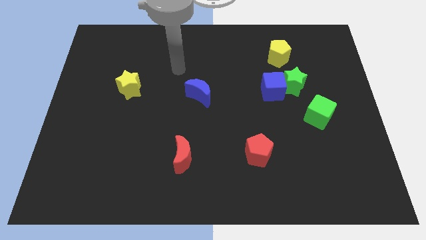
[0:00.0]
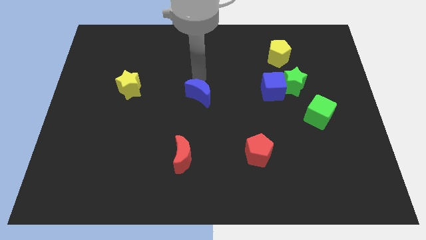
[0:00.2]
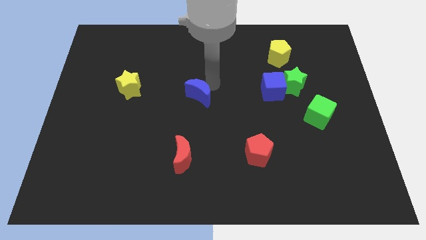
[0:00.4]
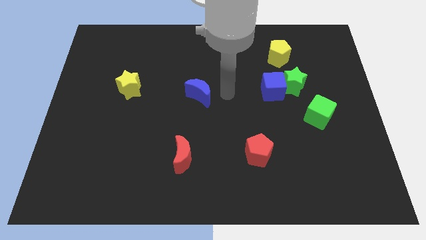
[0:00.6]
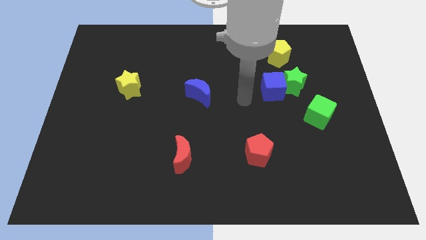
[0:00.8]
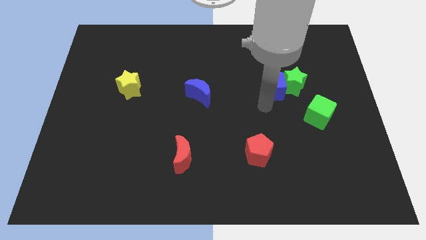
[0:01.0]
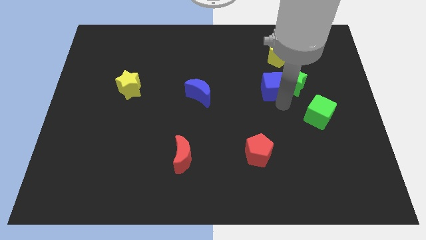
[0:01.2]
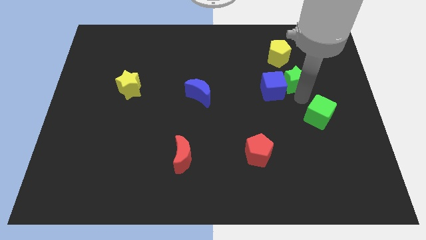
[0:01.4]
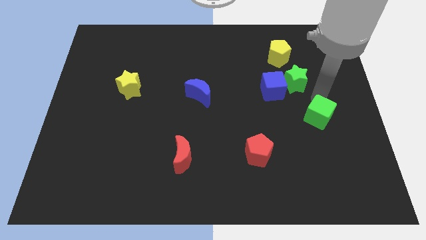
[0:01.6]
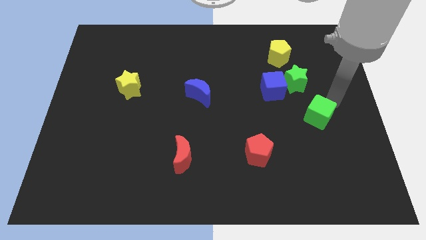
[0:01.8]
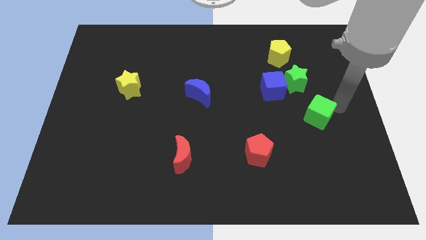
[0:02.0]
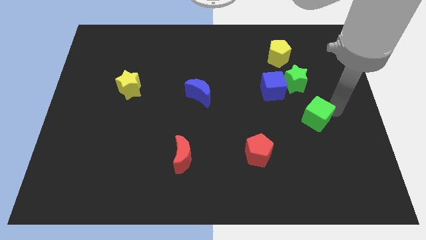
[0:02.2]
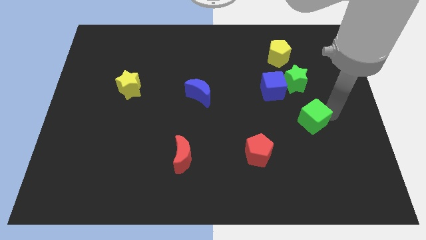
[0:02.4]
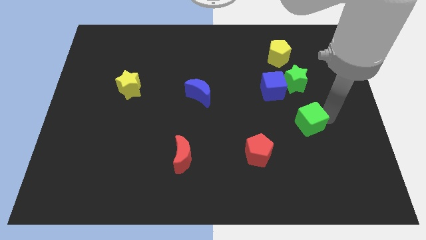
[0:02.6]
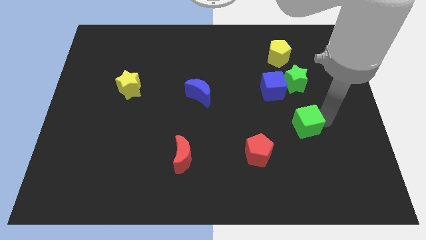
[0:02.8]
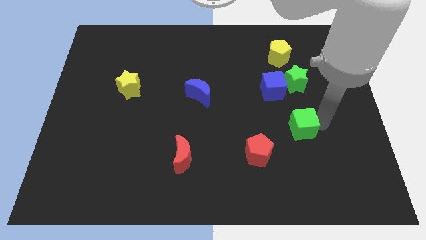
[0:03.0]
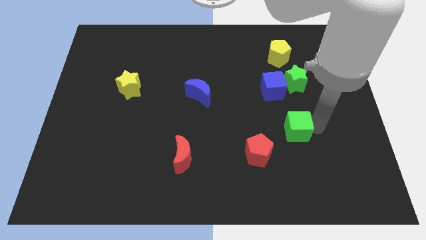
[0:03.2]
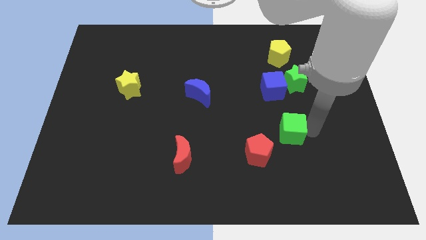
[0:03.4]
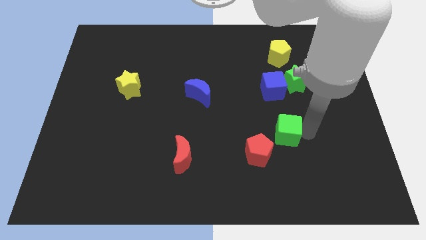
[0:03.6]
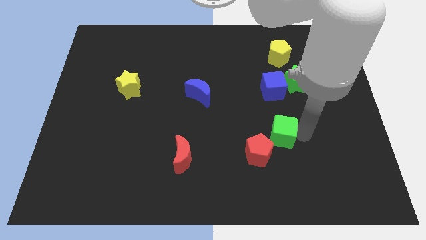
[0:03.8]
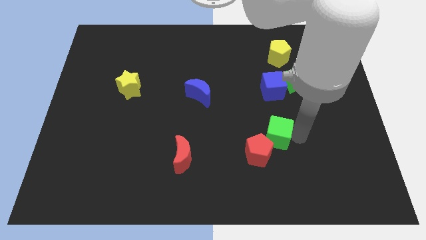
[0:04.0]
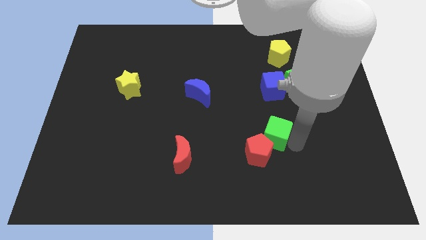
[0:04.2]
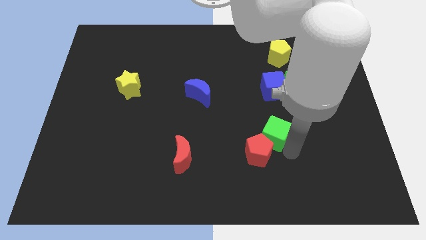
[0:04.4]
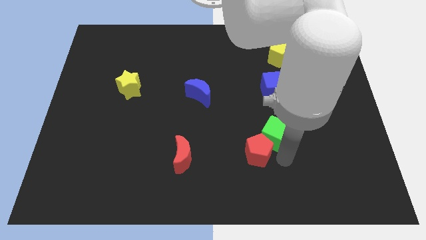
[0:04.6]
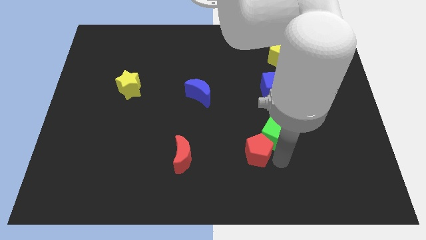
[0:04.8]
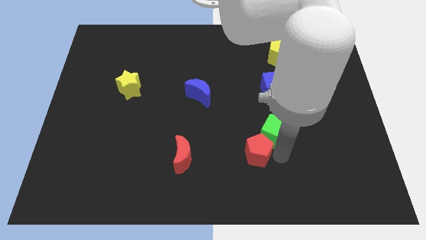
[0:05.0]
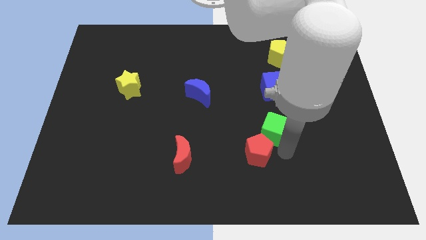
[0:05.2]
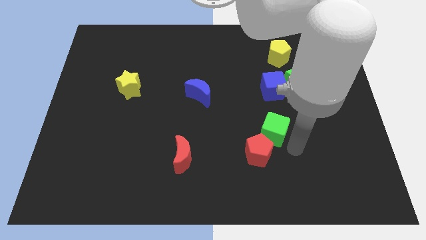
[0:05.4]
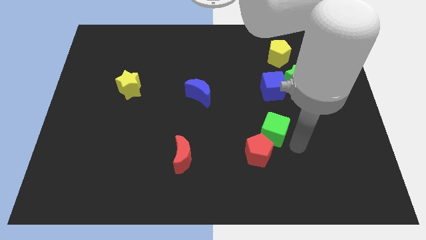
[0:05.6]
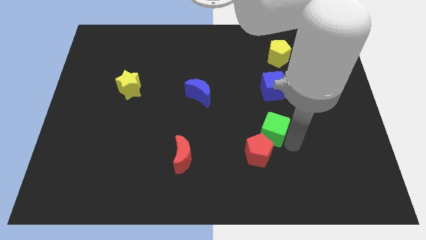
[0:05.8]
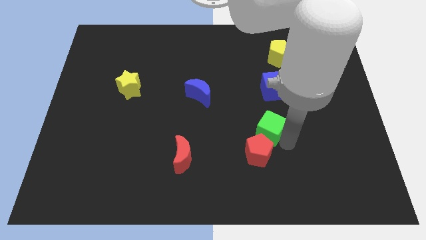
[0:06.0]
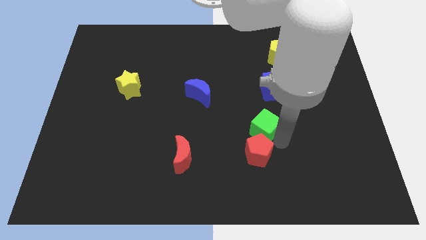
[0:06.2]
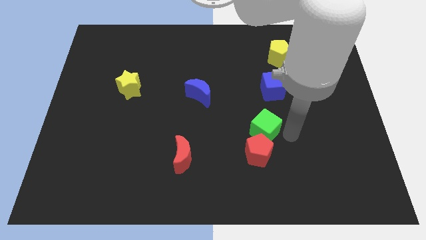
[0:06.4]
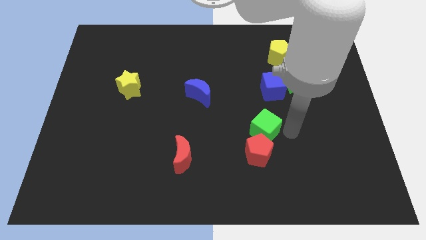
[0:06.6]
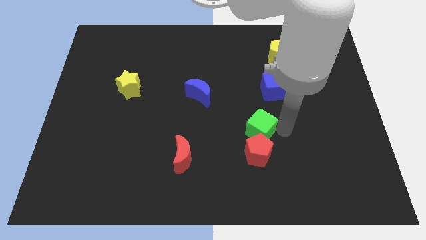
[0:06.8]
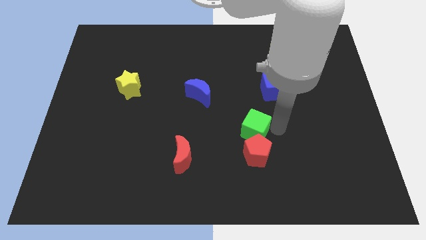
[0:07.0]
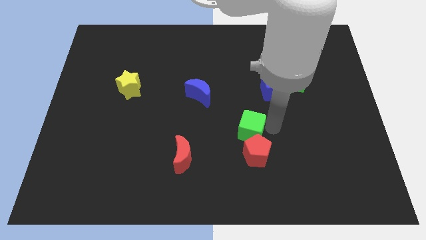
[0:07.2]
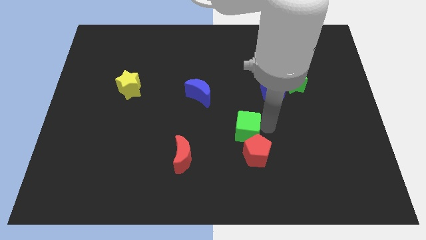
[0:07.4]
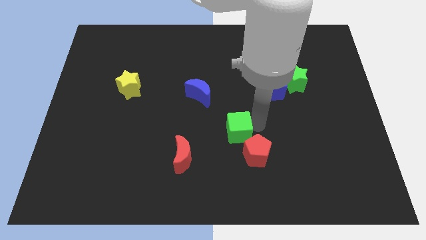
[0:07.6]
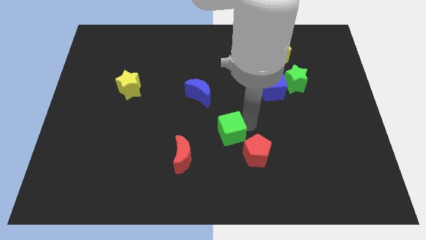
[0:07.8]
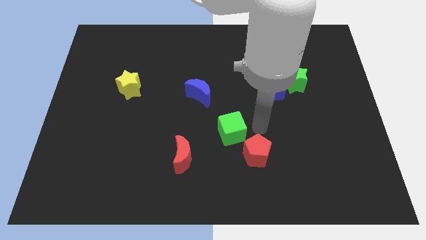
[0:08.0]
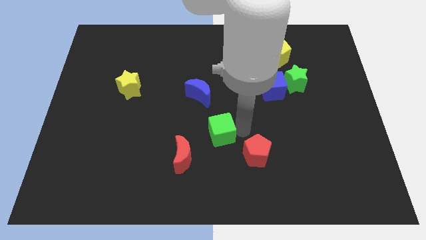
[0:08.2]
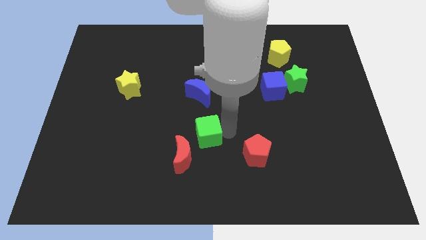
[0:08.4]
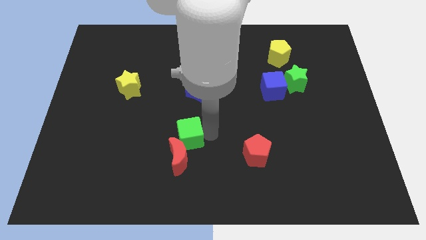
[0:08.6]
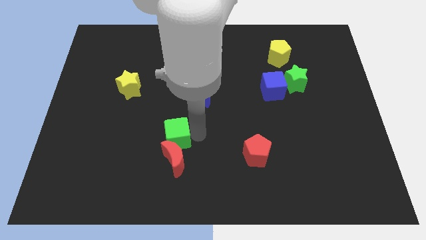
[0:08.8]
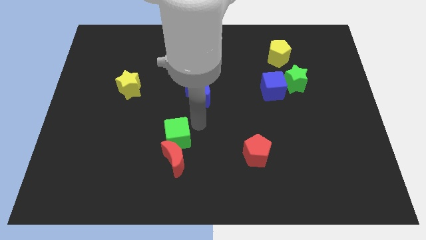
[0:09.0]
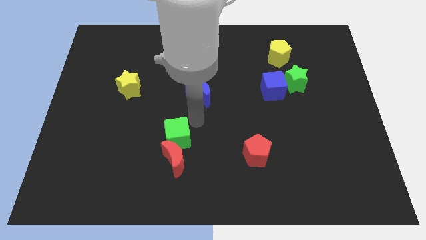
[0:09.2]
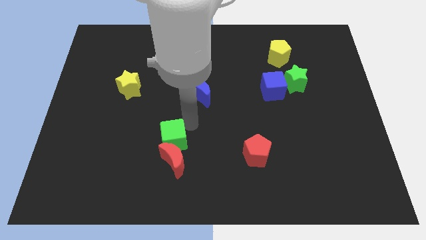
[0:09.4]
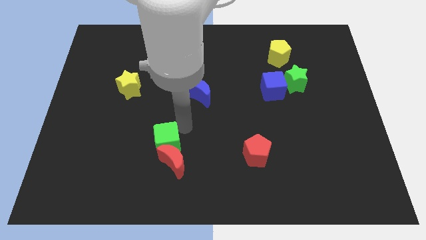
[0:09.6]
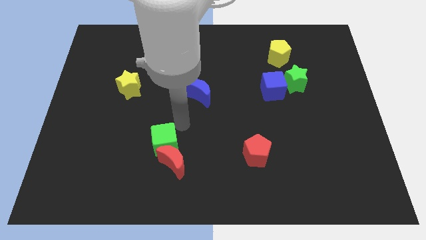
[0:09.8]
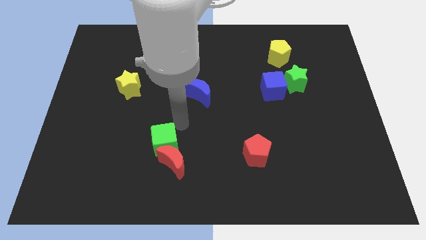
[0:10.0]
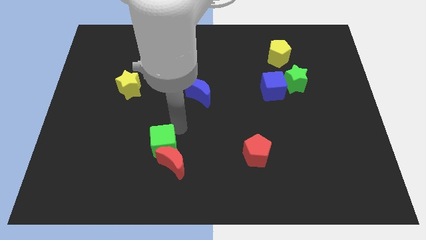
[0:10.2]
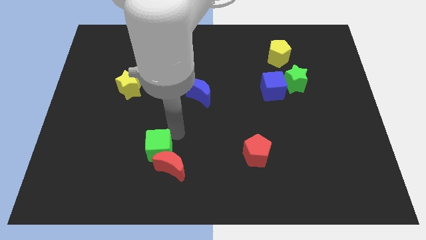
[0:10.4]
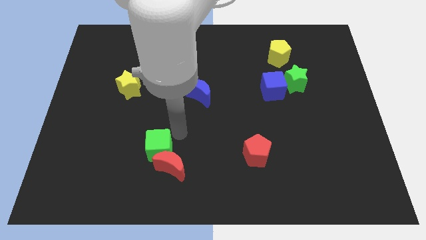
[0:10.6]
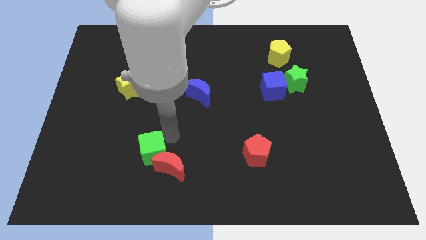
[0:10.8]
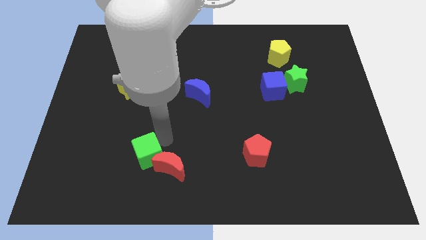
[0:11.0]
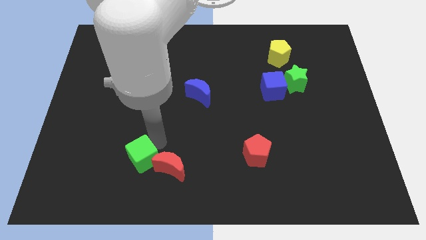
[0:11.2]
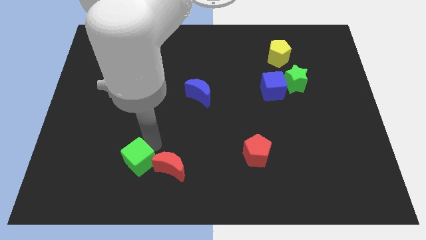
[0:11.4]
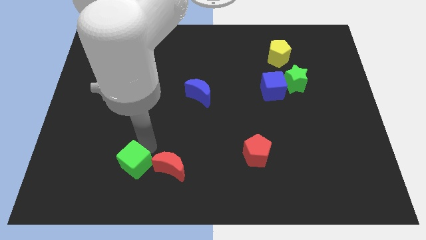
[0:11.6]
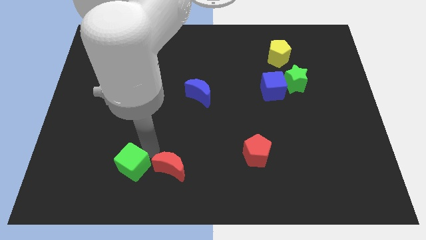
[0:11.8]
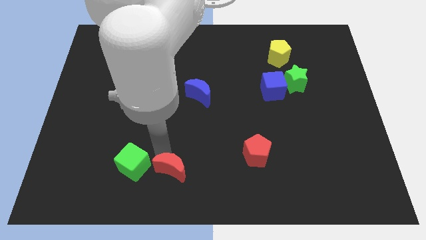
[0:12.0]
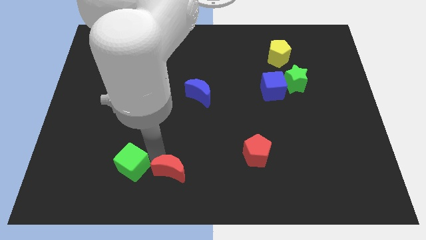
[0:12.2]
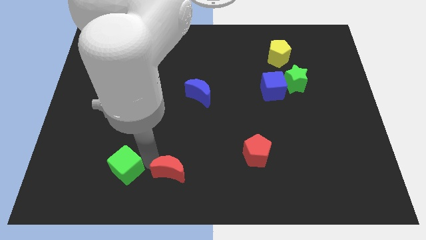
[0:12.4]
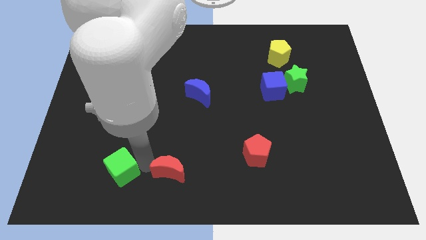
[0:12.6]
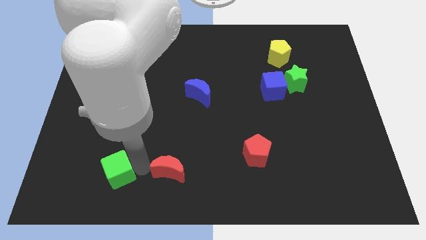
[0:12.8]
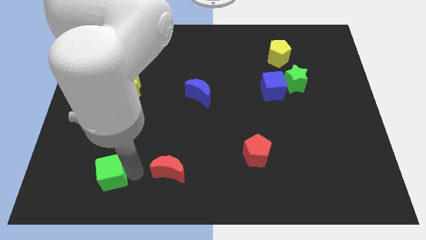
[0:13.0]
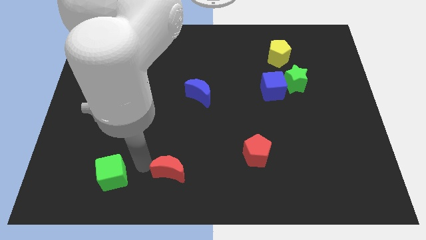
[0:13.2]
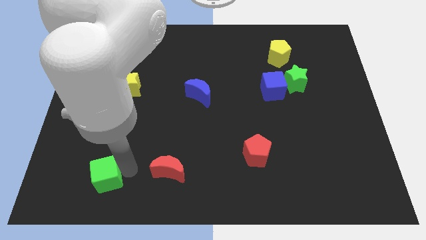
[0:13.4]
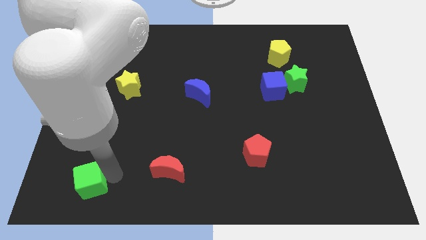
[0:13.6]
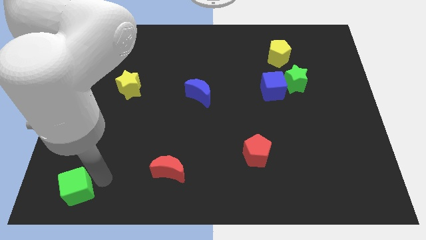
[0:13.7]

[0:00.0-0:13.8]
push the green cube to the bottom left of the board
